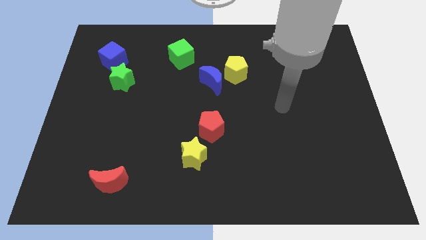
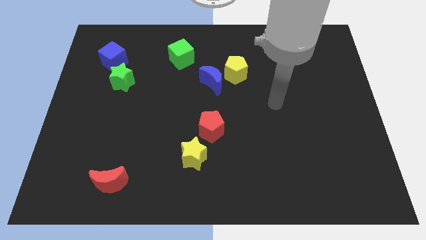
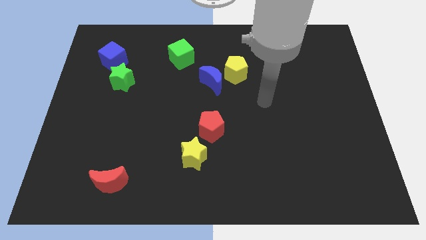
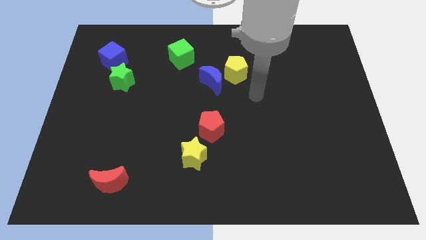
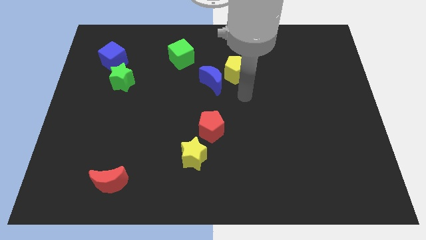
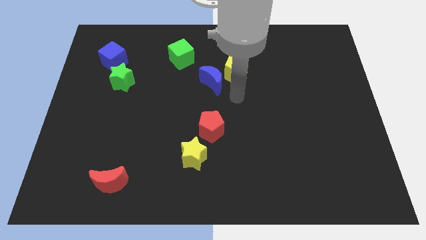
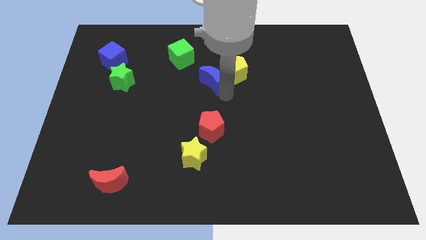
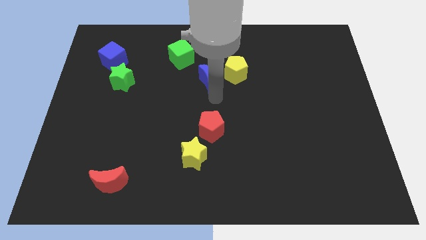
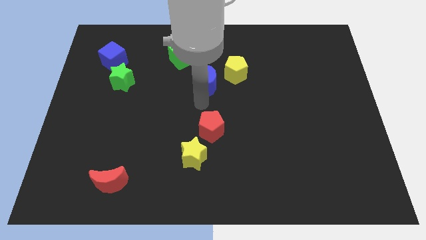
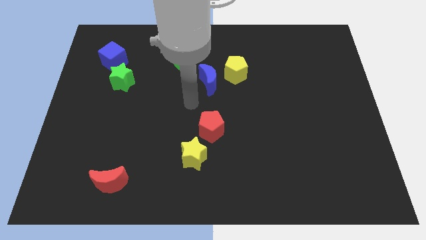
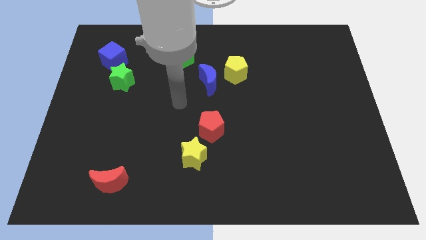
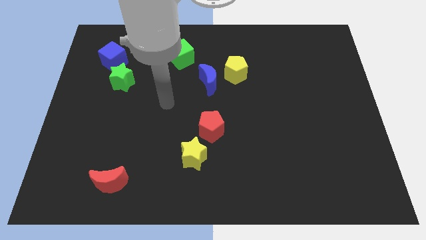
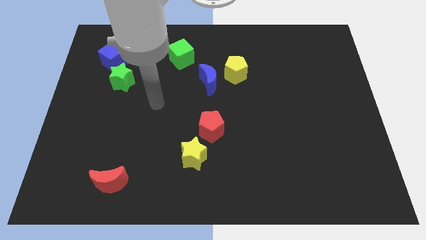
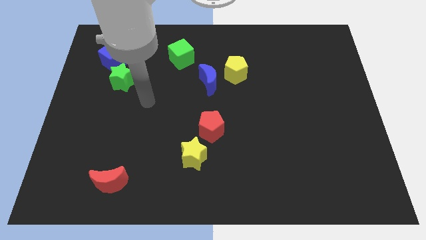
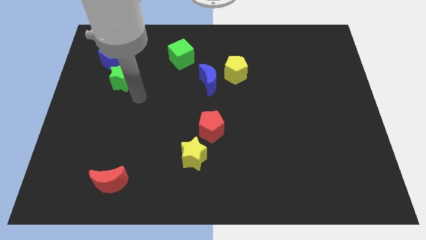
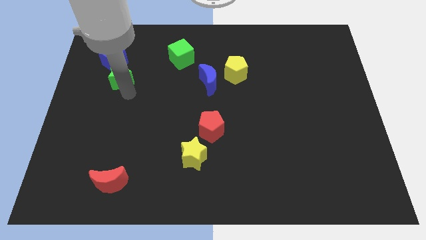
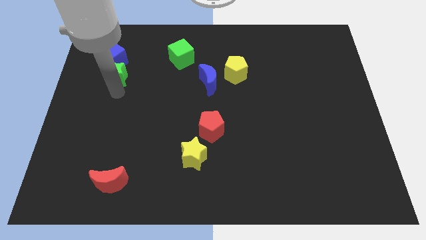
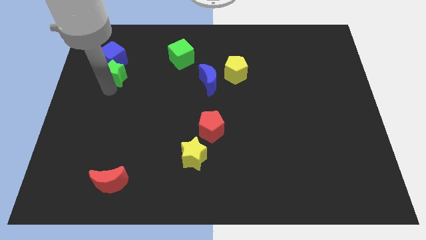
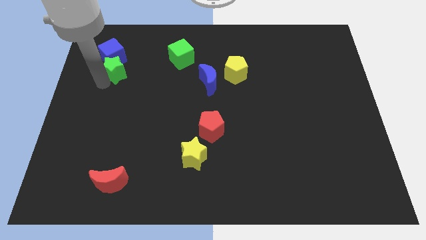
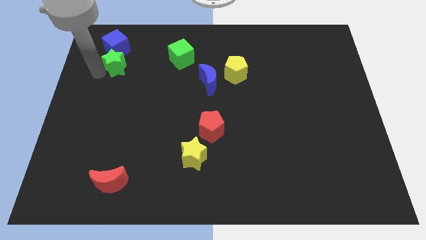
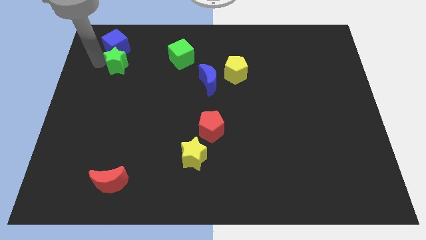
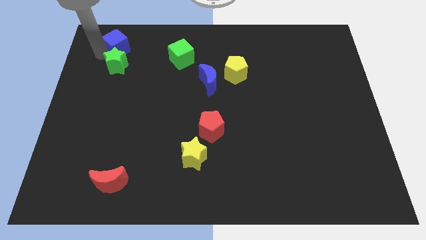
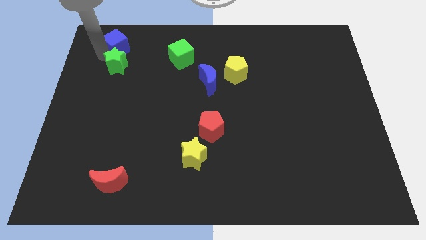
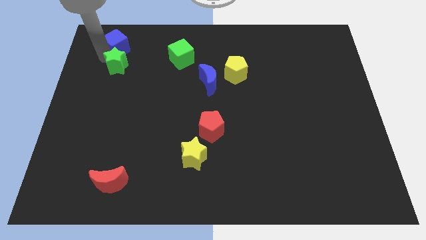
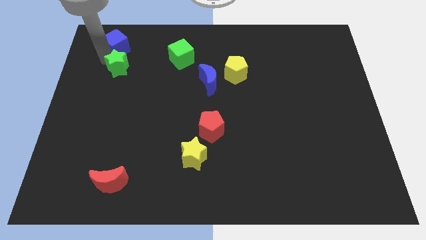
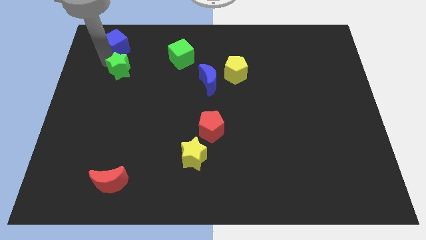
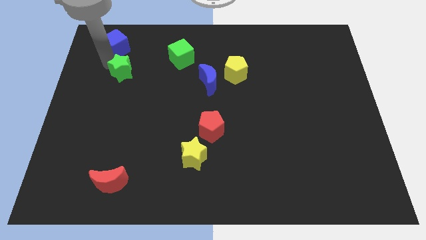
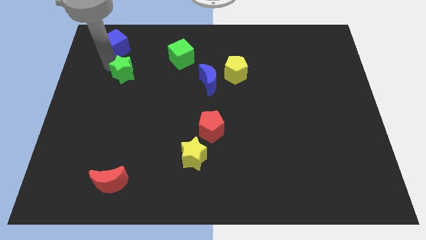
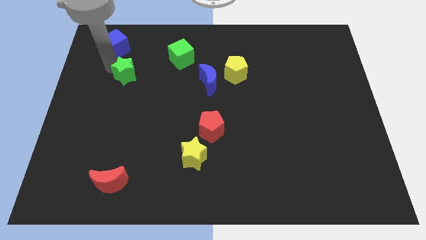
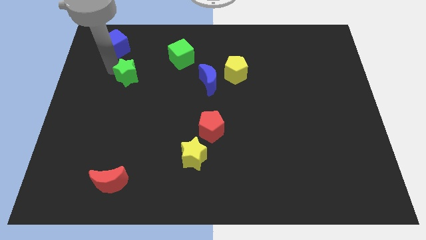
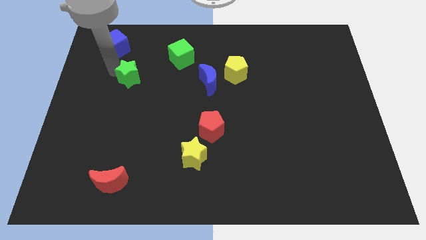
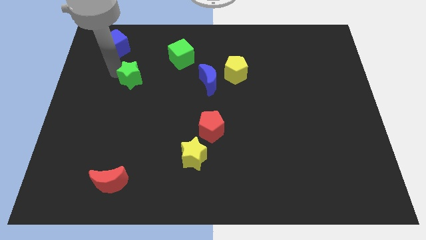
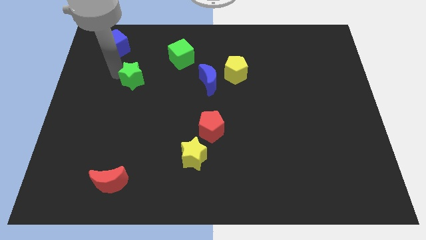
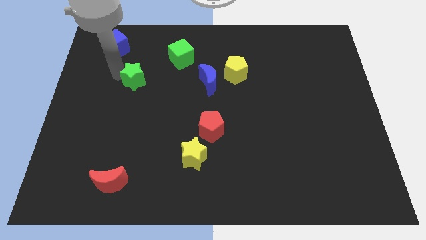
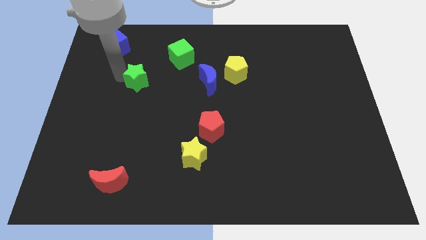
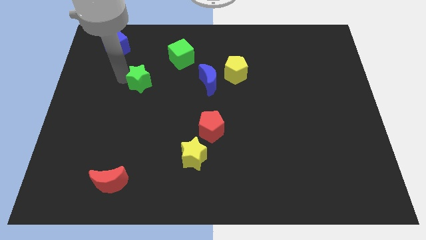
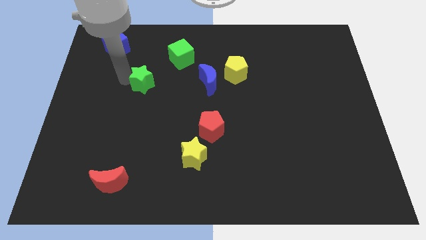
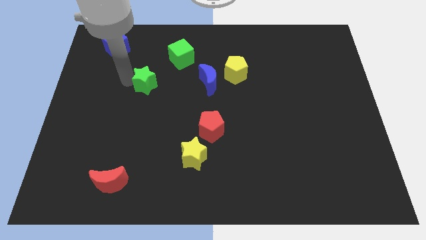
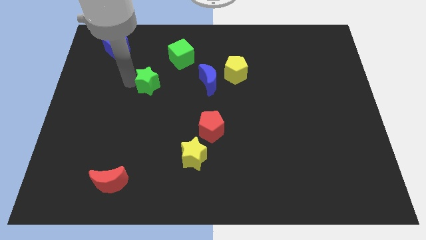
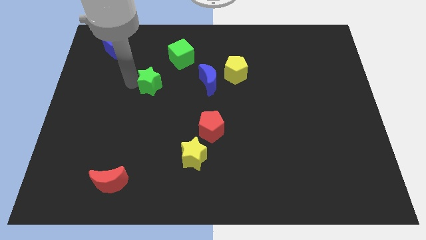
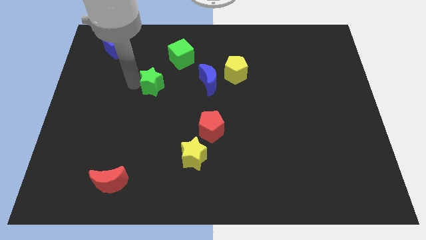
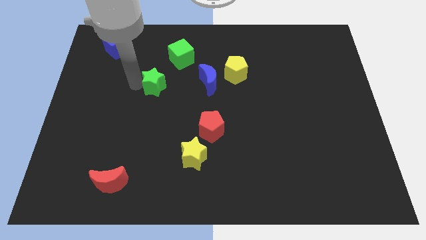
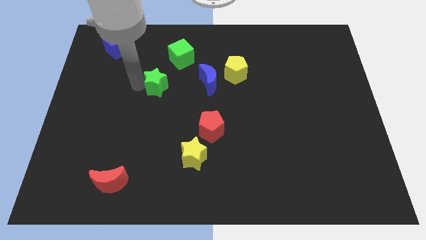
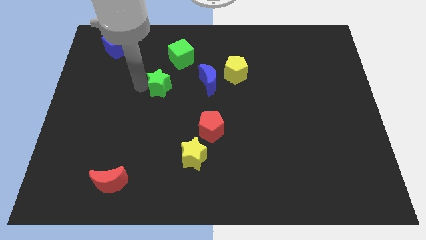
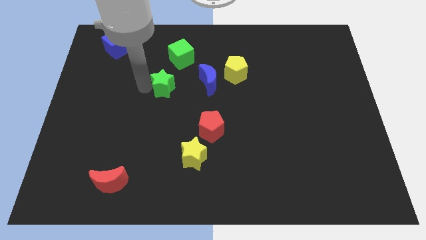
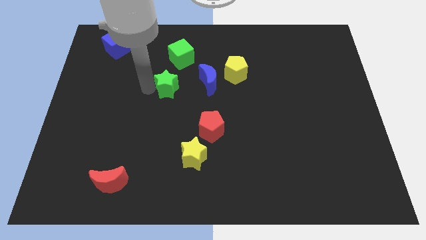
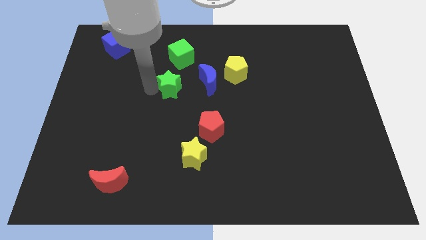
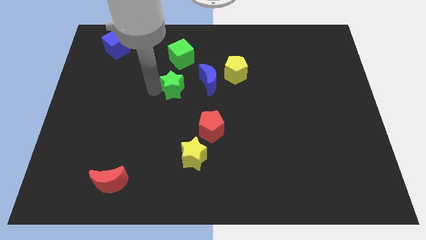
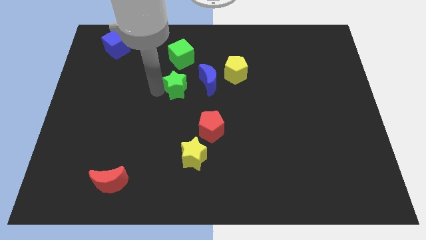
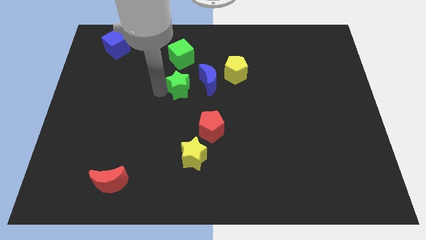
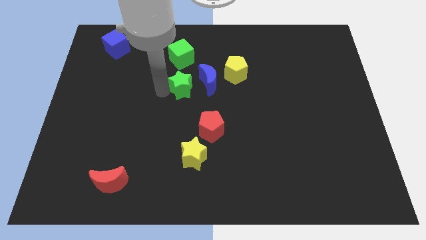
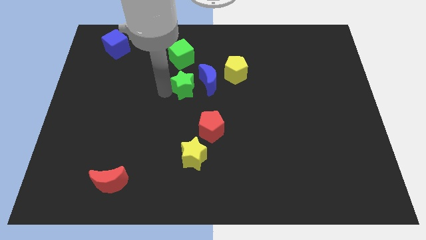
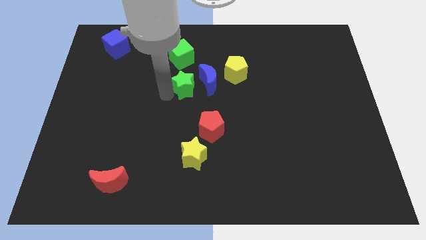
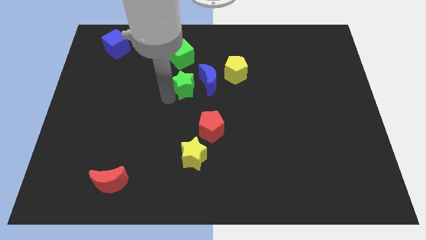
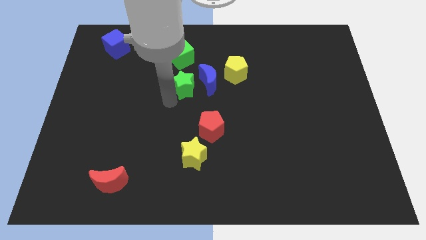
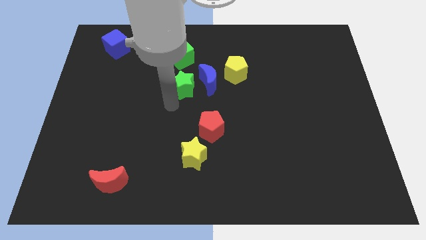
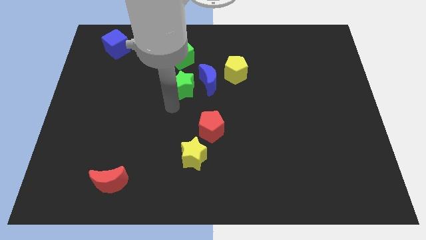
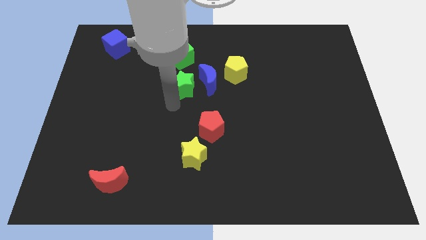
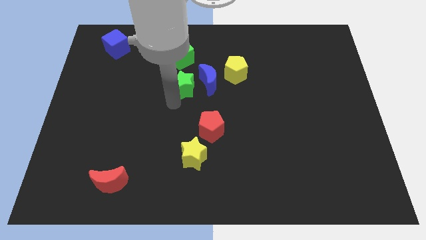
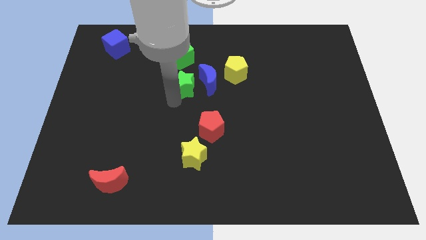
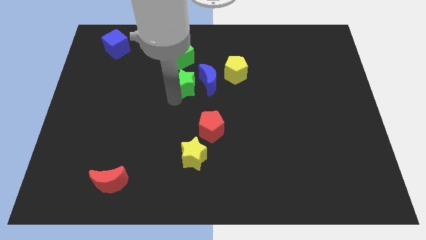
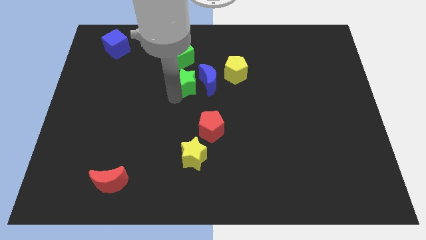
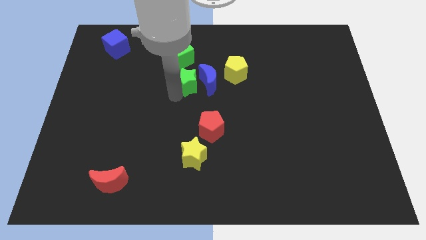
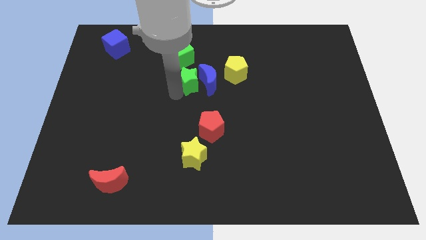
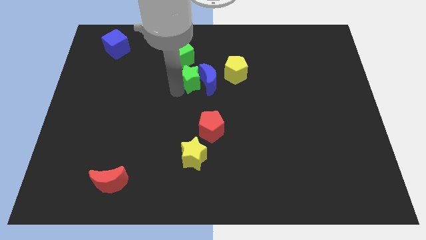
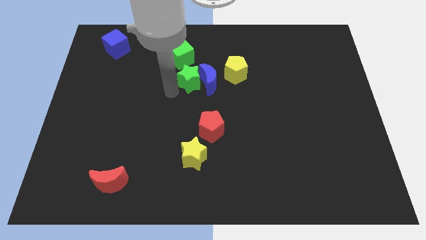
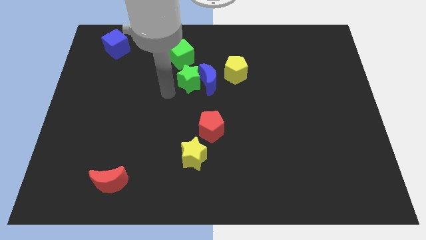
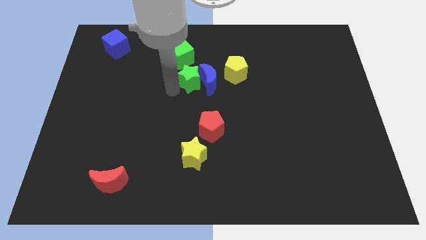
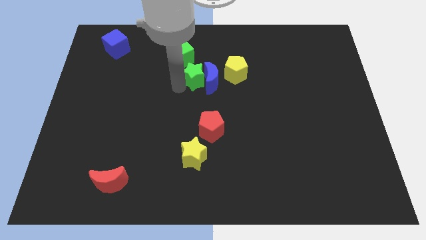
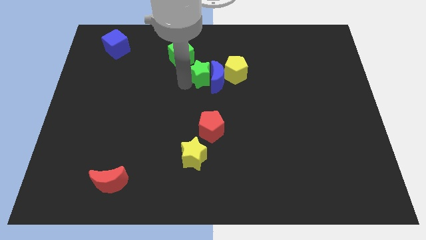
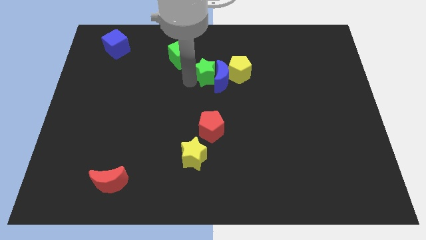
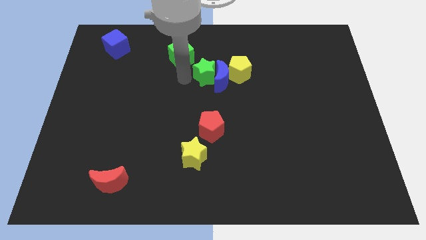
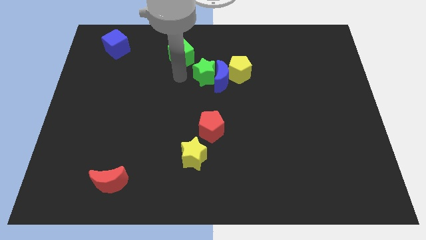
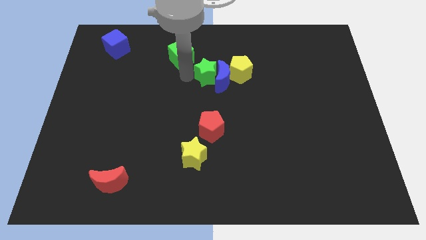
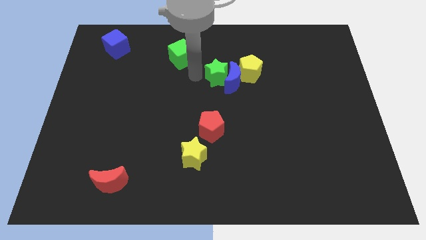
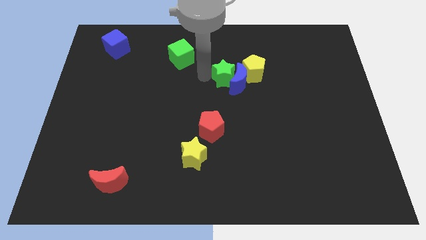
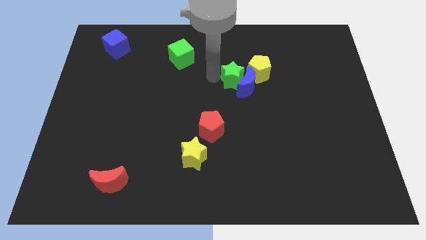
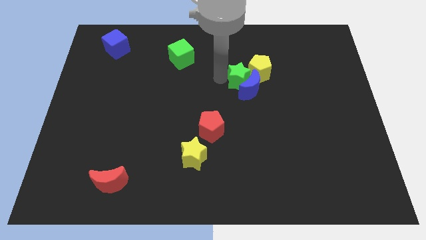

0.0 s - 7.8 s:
put the green star towards the yellow pentagon

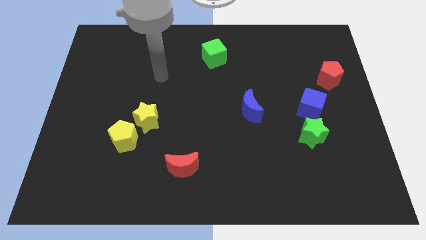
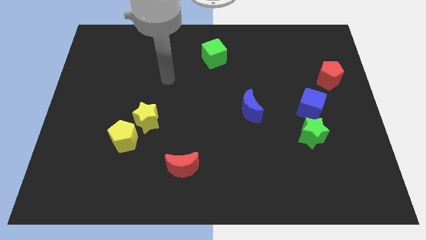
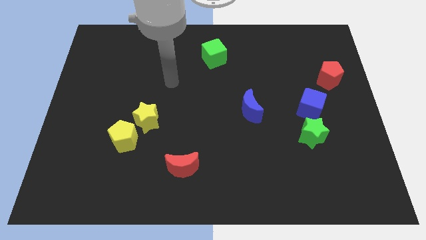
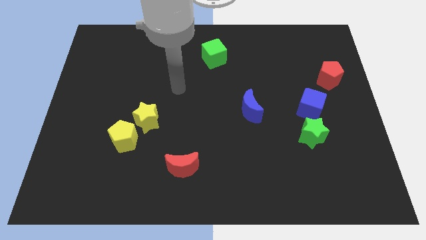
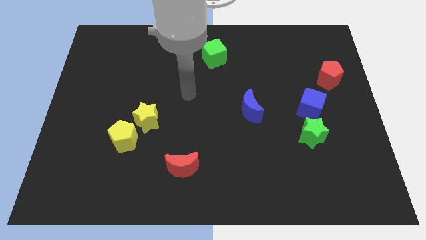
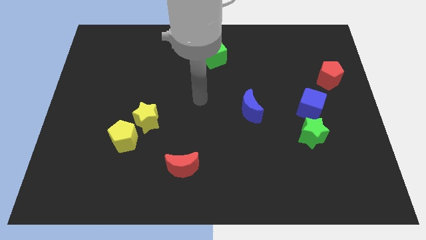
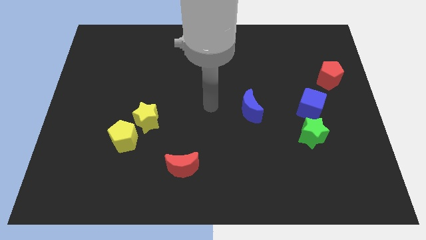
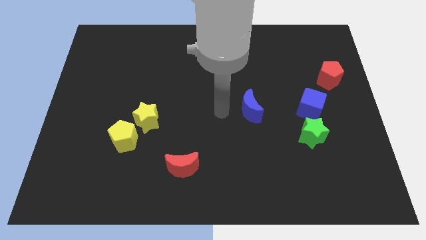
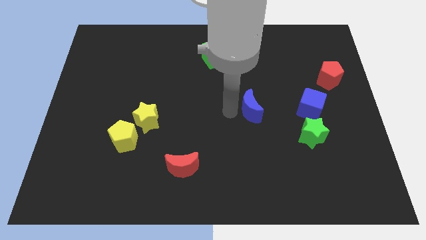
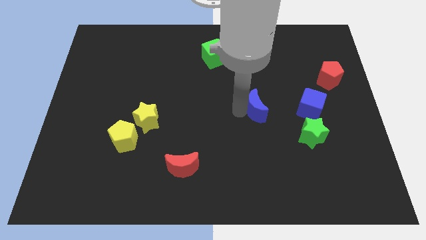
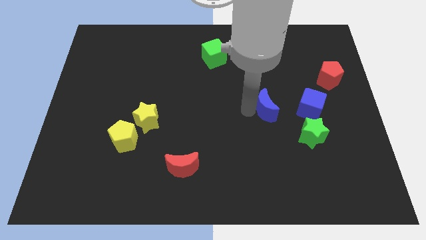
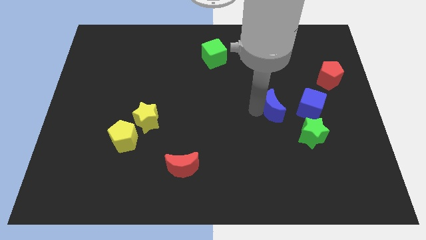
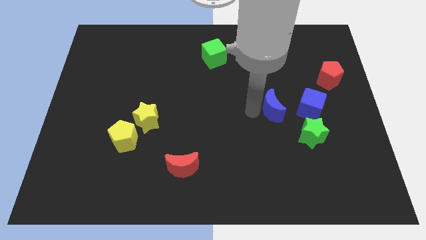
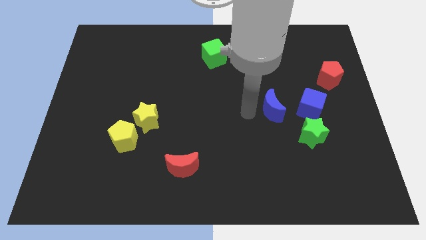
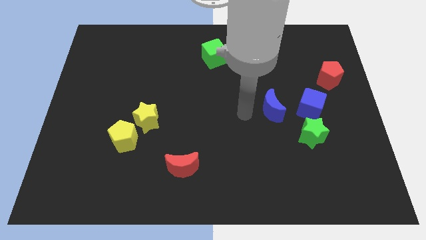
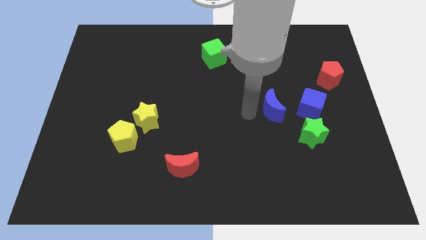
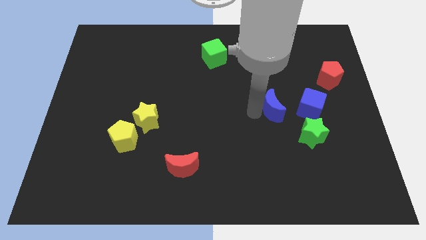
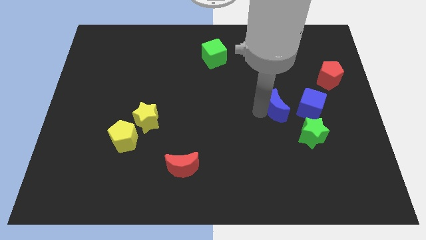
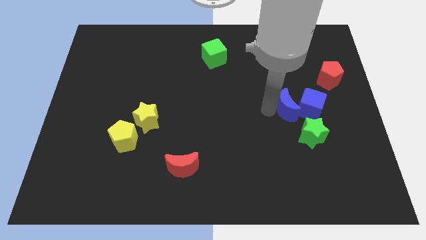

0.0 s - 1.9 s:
slide the blue moon close to the blue cube
